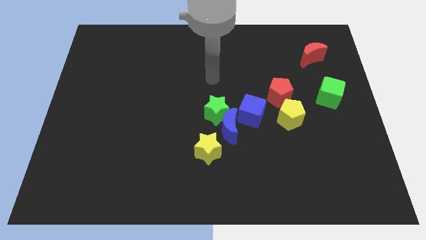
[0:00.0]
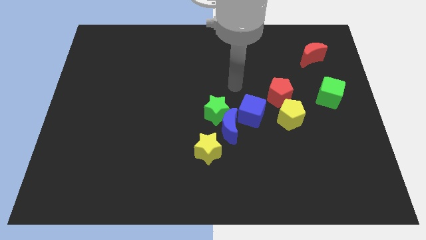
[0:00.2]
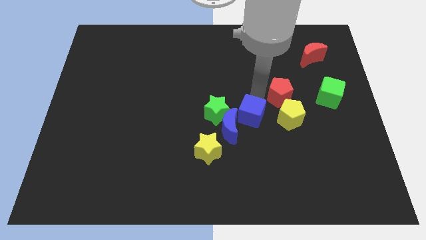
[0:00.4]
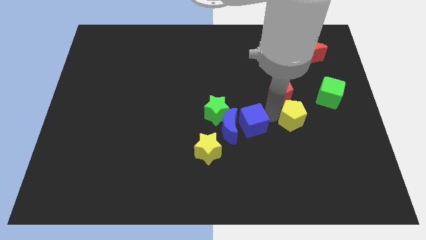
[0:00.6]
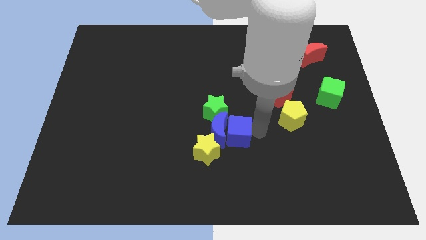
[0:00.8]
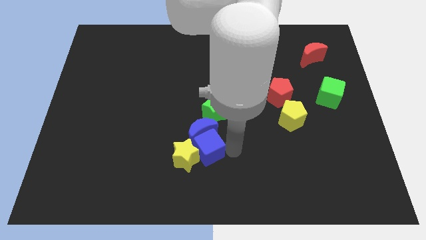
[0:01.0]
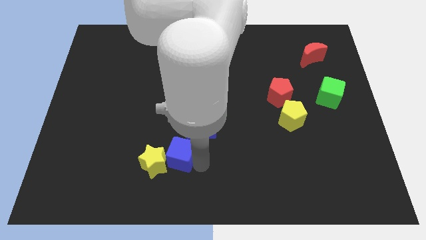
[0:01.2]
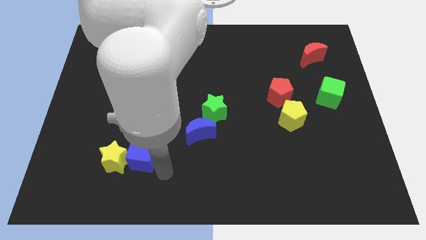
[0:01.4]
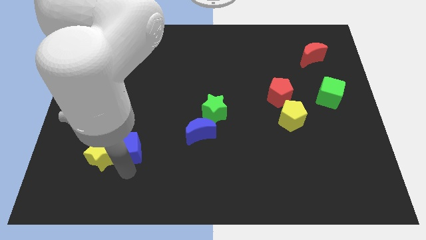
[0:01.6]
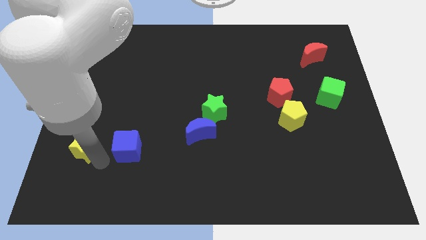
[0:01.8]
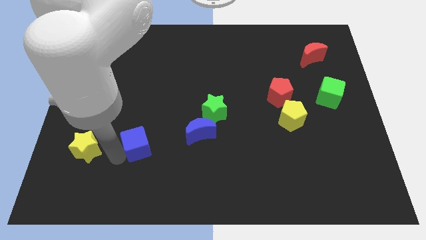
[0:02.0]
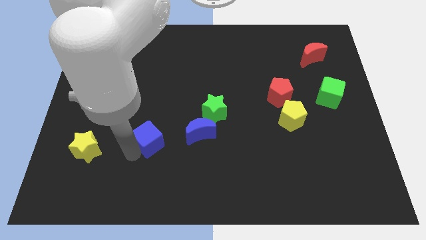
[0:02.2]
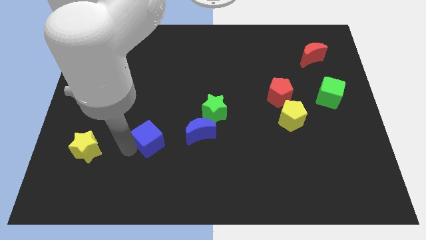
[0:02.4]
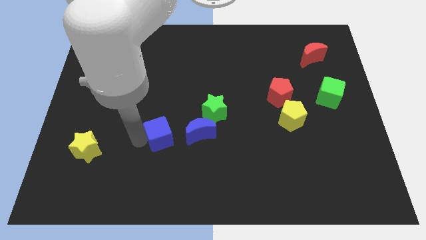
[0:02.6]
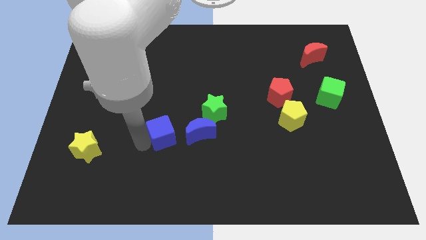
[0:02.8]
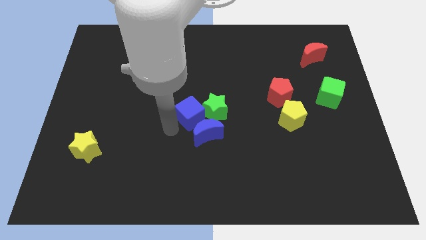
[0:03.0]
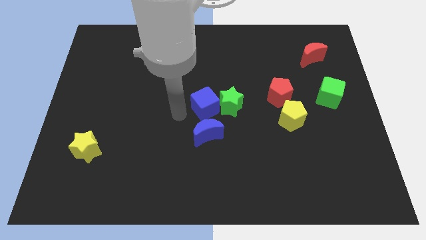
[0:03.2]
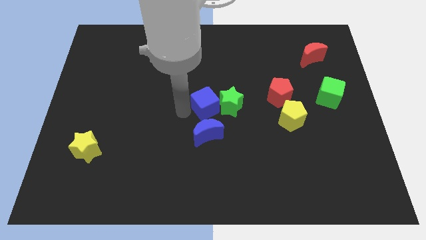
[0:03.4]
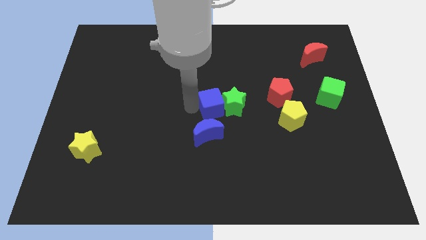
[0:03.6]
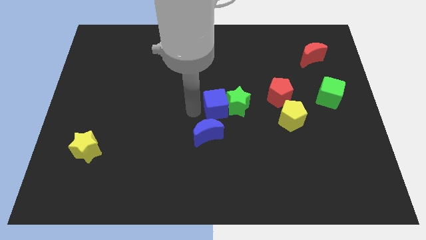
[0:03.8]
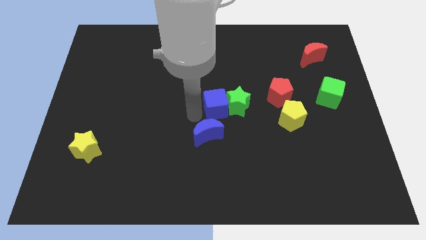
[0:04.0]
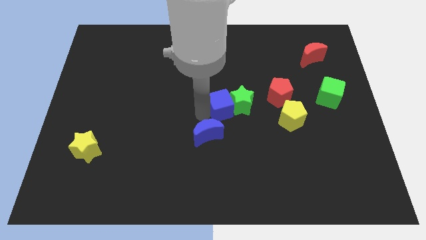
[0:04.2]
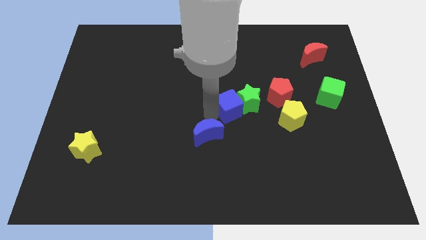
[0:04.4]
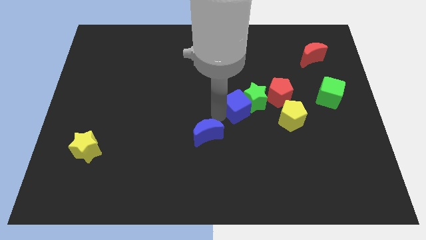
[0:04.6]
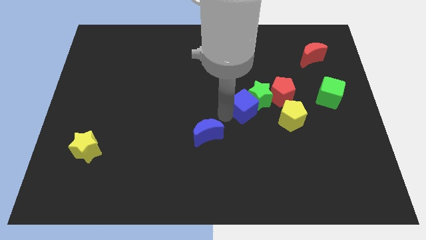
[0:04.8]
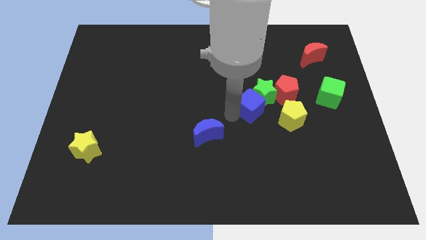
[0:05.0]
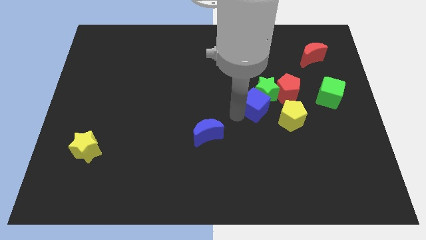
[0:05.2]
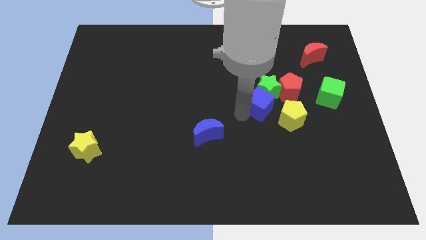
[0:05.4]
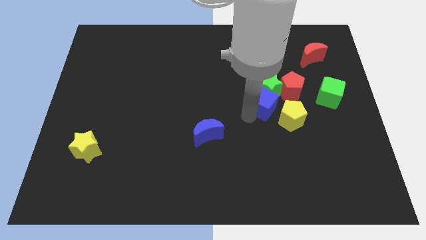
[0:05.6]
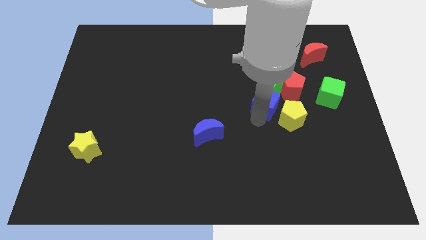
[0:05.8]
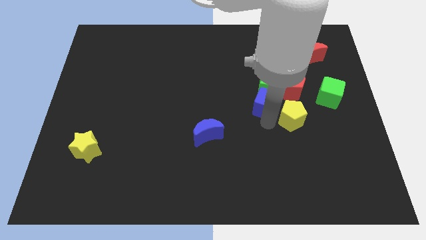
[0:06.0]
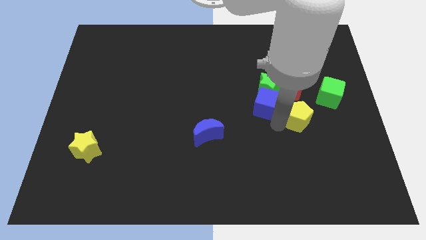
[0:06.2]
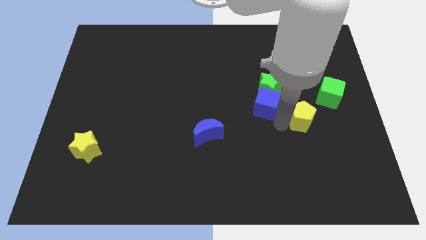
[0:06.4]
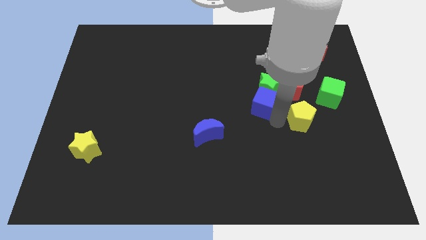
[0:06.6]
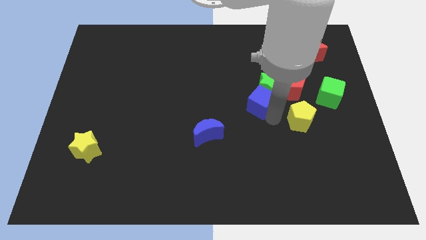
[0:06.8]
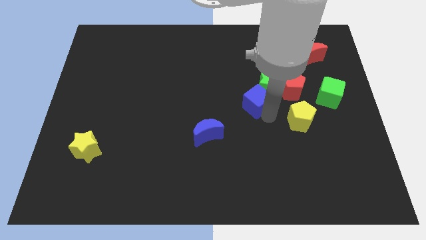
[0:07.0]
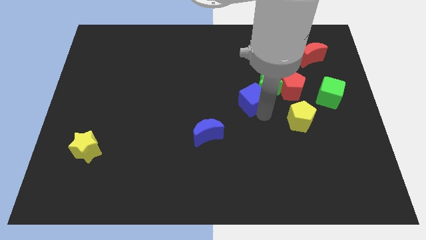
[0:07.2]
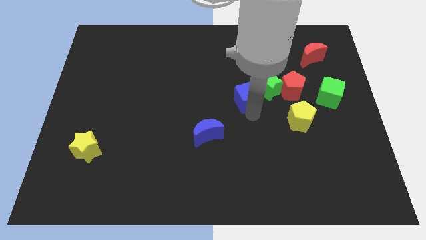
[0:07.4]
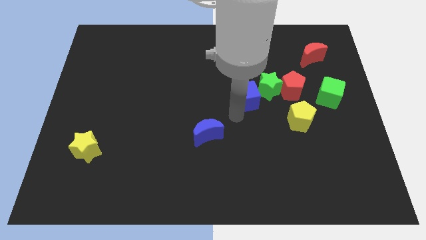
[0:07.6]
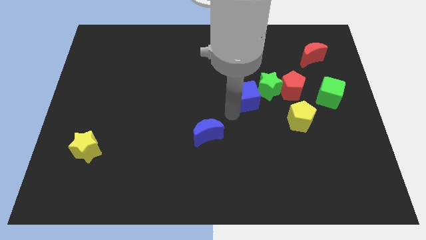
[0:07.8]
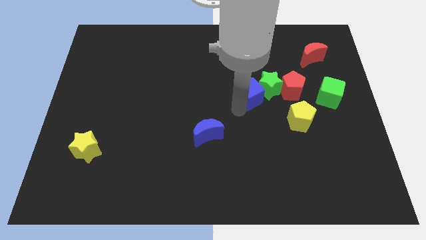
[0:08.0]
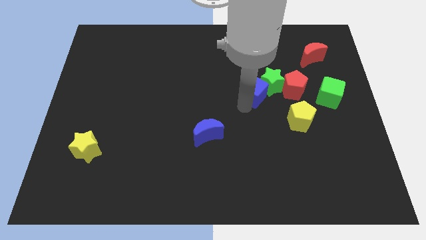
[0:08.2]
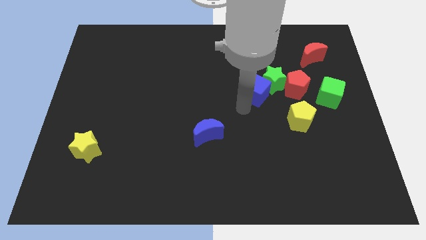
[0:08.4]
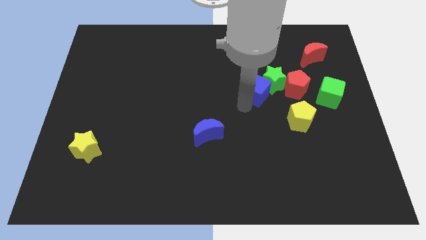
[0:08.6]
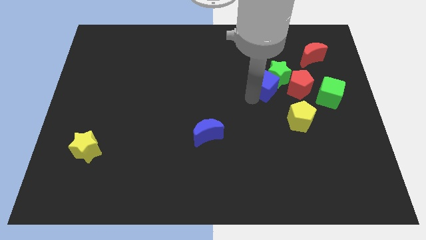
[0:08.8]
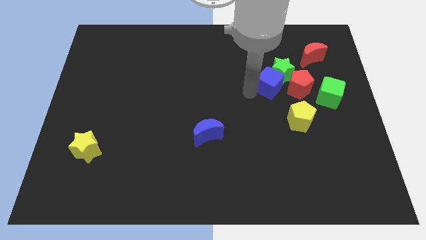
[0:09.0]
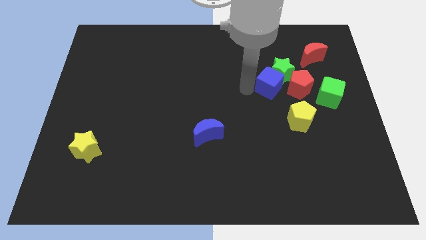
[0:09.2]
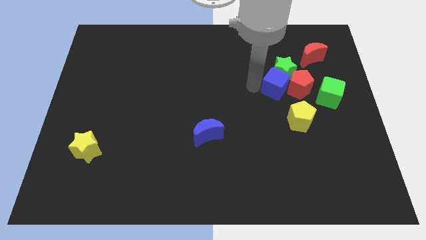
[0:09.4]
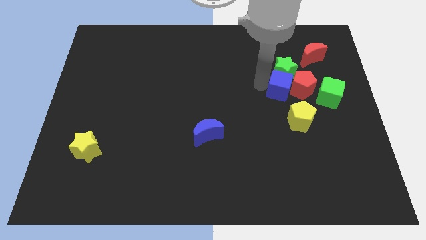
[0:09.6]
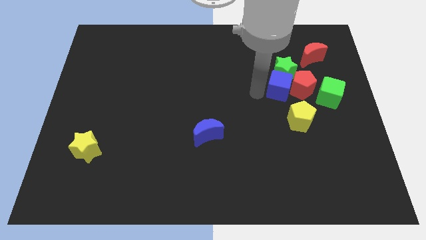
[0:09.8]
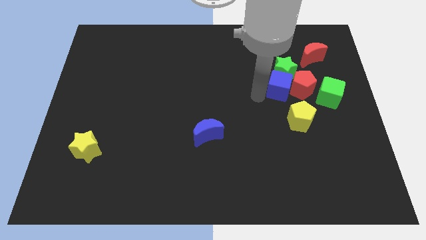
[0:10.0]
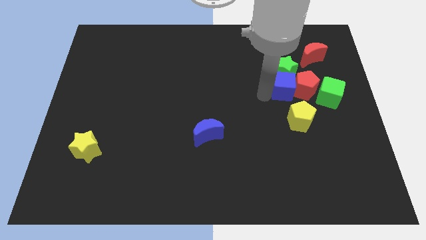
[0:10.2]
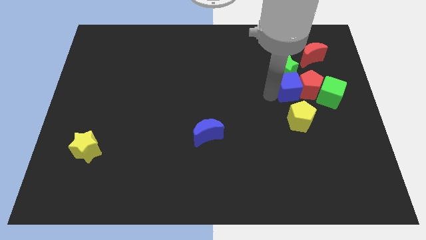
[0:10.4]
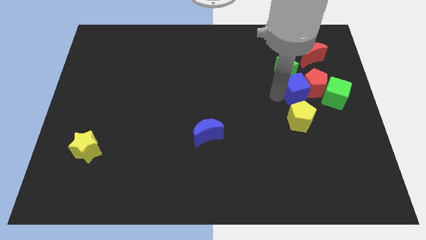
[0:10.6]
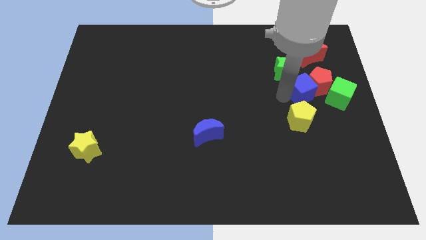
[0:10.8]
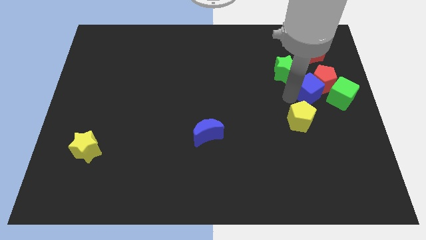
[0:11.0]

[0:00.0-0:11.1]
put the blue cube to the top left side of the green cube

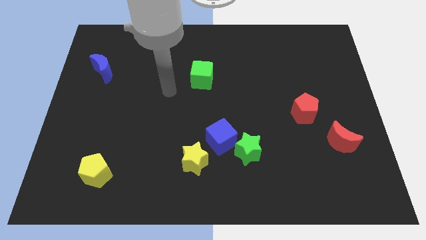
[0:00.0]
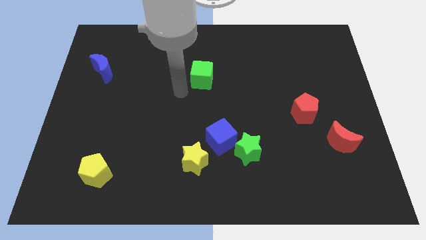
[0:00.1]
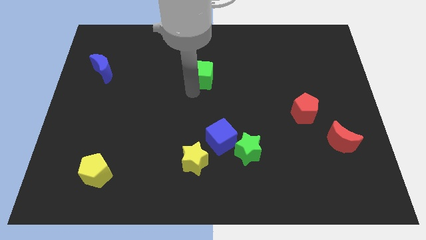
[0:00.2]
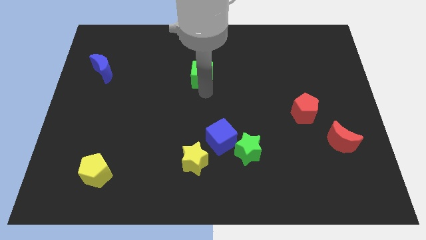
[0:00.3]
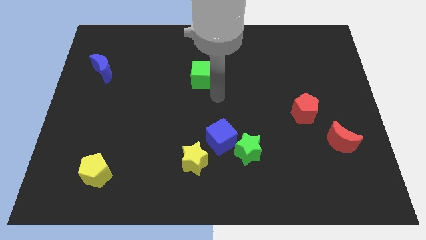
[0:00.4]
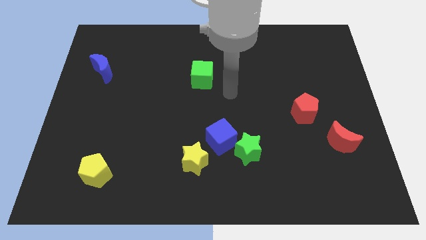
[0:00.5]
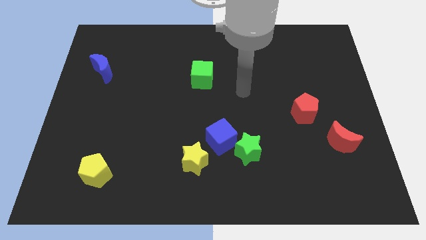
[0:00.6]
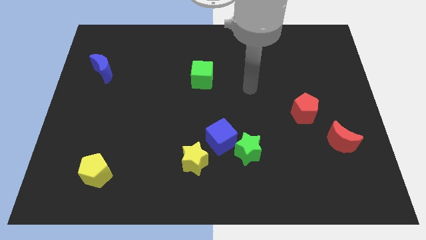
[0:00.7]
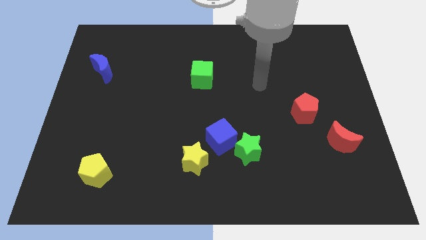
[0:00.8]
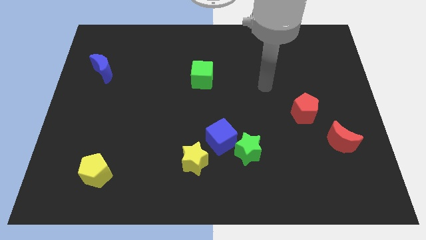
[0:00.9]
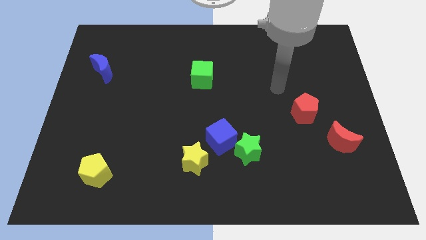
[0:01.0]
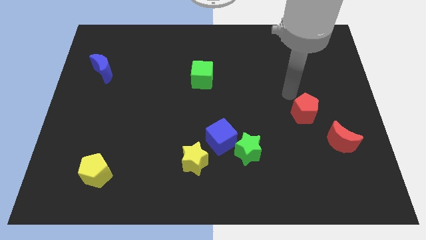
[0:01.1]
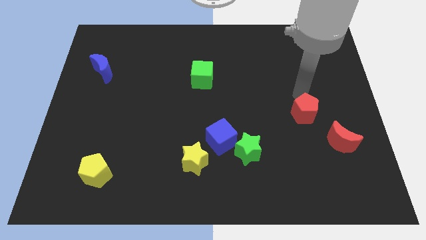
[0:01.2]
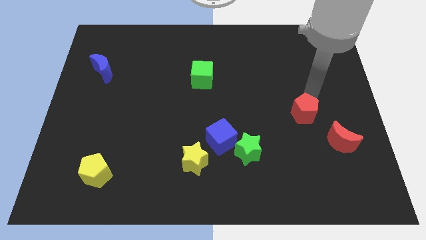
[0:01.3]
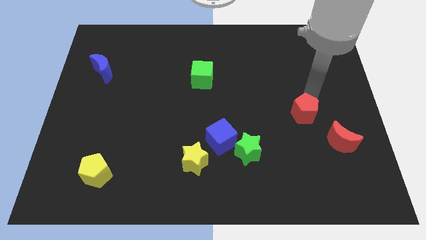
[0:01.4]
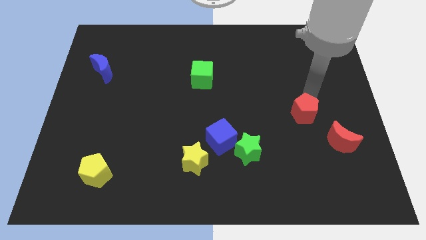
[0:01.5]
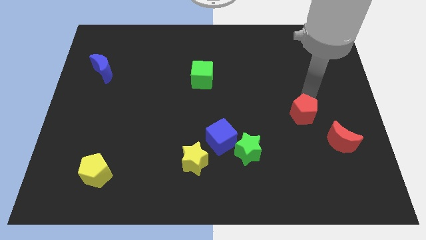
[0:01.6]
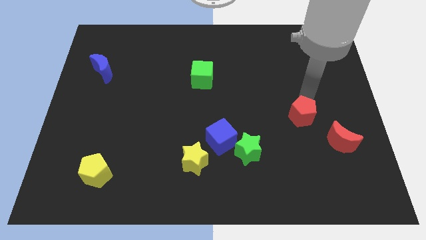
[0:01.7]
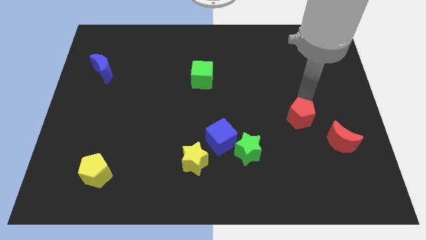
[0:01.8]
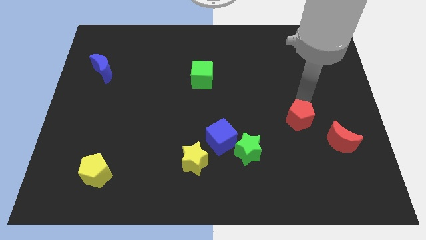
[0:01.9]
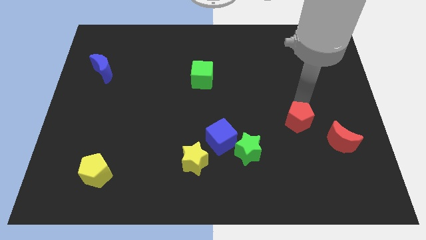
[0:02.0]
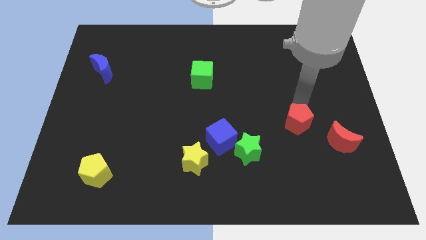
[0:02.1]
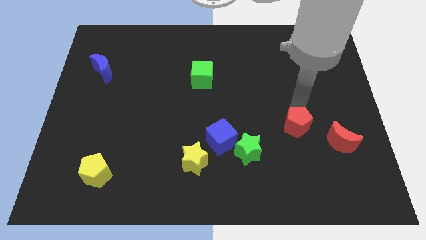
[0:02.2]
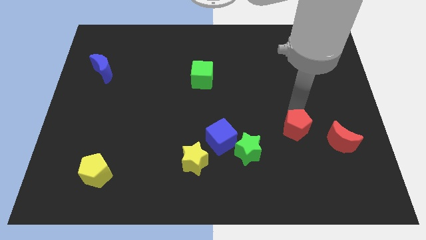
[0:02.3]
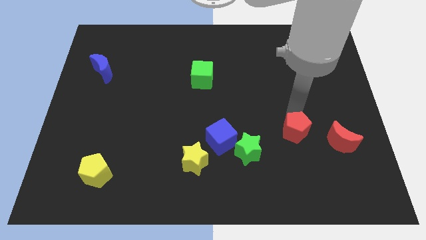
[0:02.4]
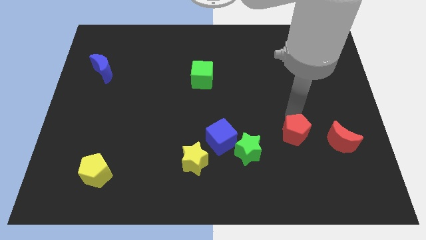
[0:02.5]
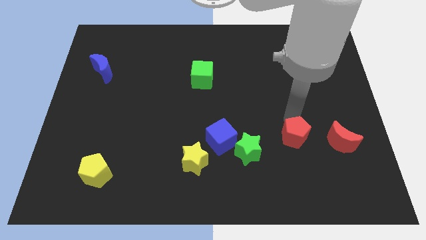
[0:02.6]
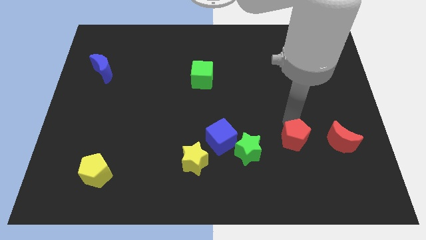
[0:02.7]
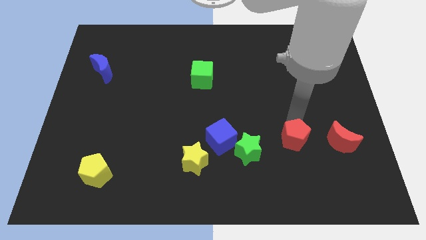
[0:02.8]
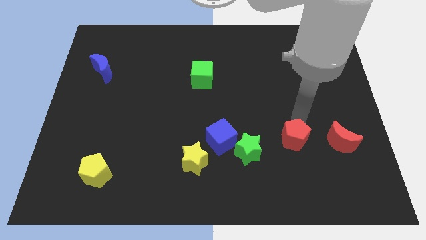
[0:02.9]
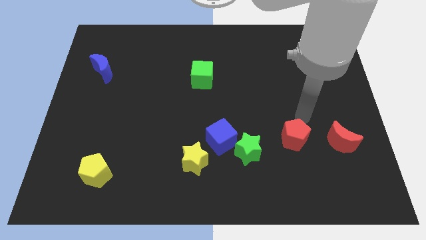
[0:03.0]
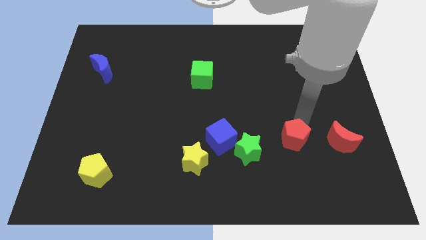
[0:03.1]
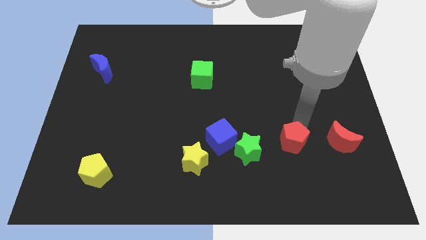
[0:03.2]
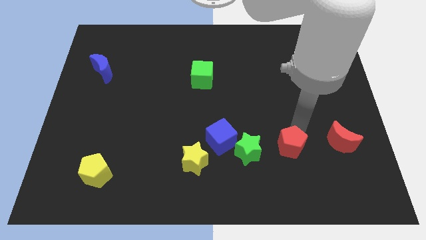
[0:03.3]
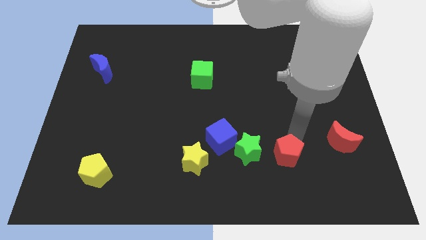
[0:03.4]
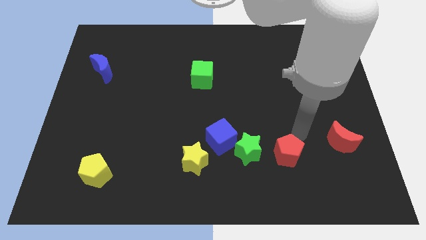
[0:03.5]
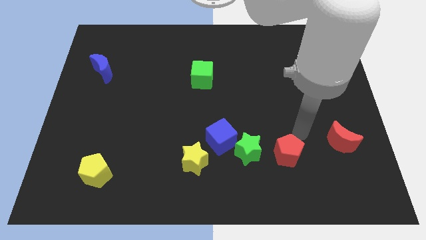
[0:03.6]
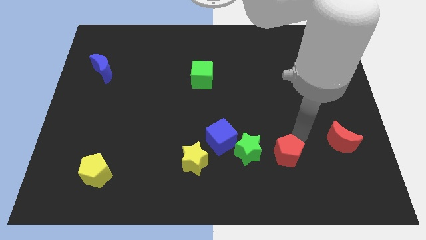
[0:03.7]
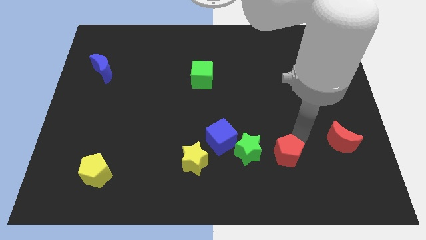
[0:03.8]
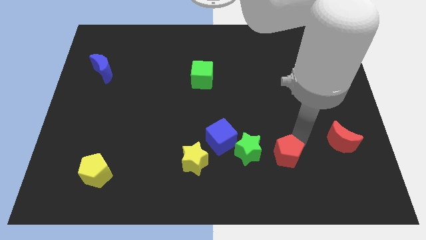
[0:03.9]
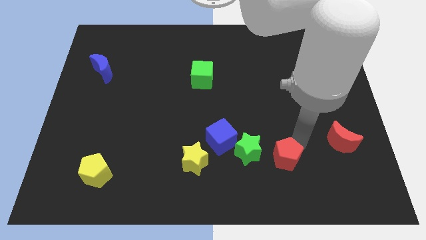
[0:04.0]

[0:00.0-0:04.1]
push the red pentagon to the bottom right side of the green star
